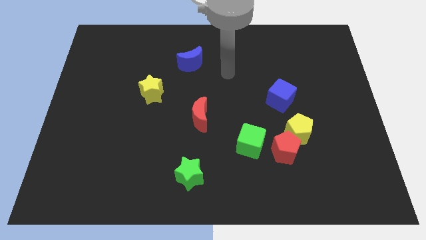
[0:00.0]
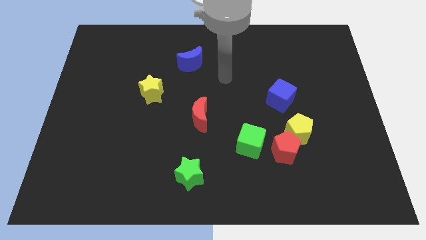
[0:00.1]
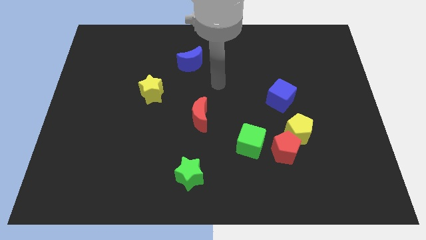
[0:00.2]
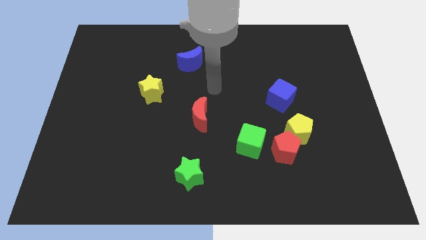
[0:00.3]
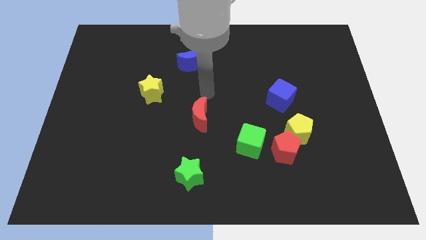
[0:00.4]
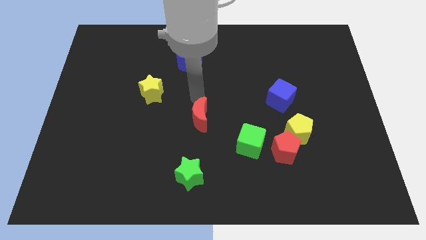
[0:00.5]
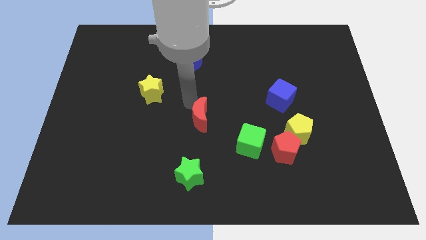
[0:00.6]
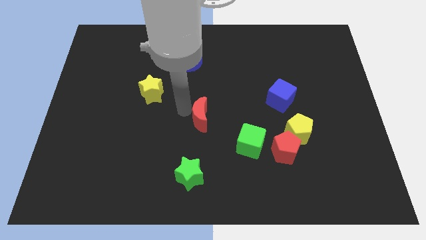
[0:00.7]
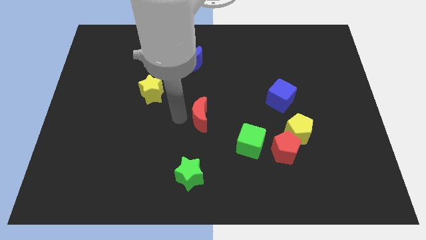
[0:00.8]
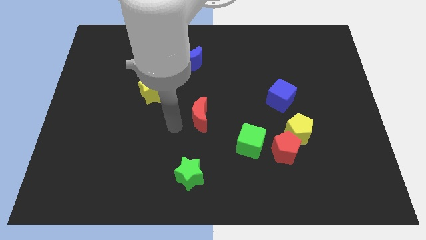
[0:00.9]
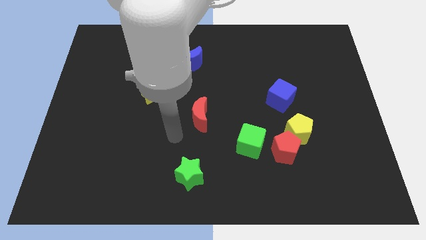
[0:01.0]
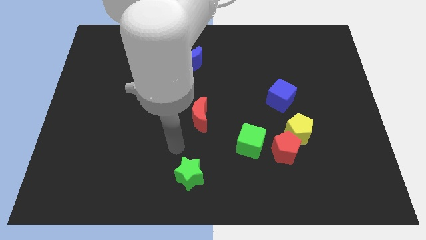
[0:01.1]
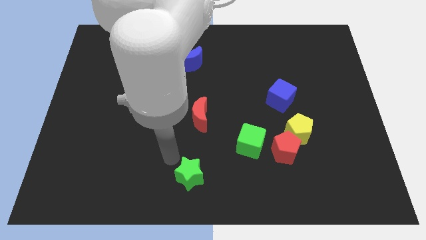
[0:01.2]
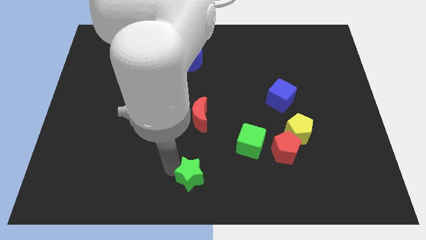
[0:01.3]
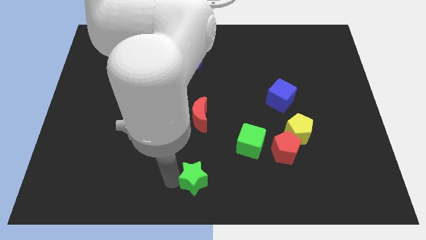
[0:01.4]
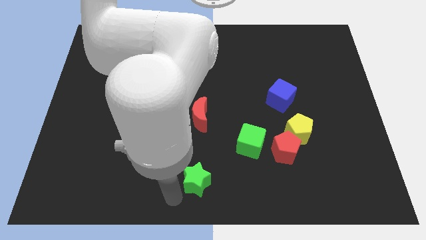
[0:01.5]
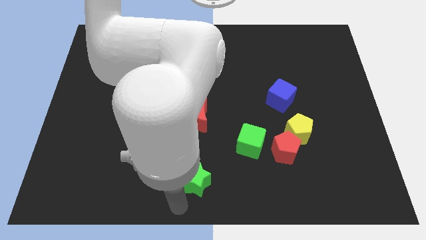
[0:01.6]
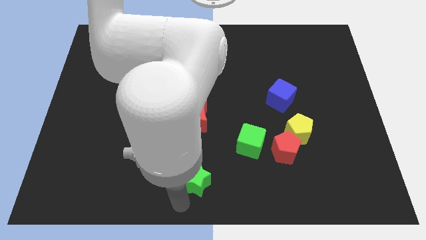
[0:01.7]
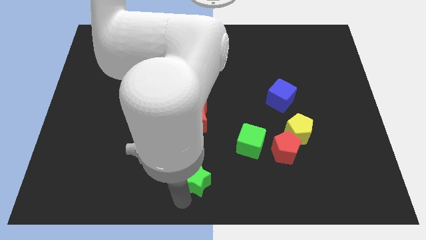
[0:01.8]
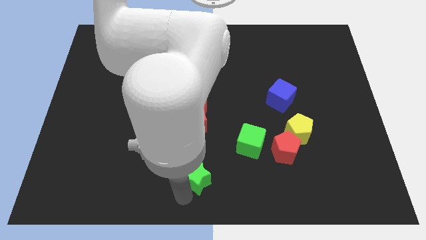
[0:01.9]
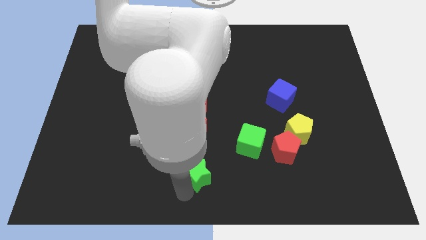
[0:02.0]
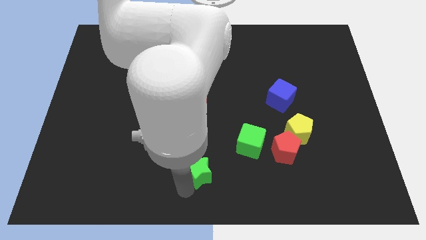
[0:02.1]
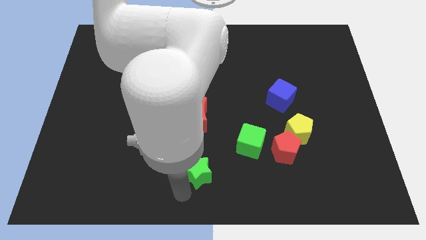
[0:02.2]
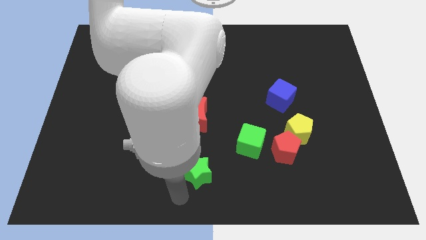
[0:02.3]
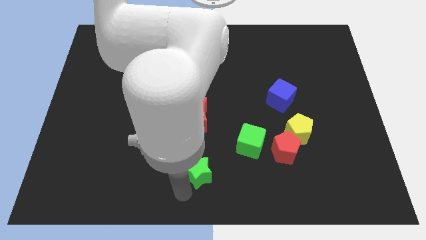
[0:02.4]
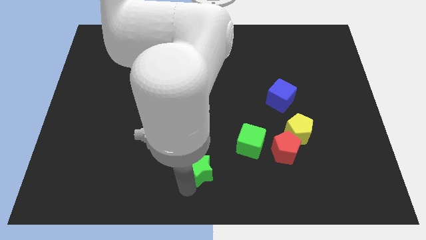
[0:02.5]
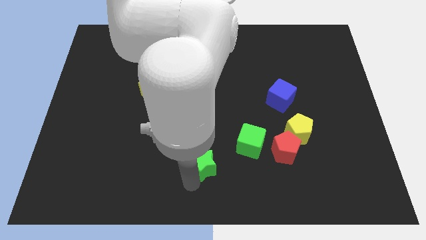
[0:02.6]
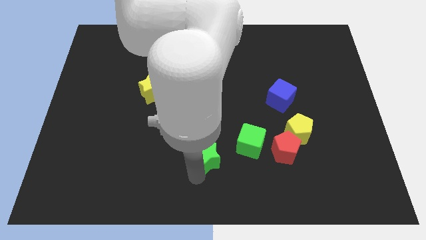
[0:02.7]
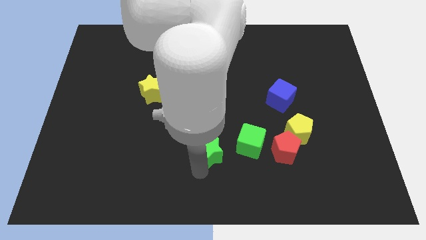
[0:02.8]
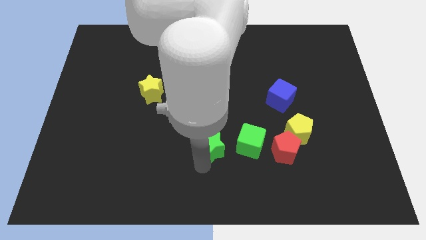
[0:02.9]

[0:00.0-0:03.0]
push the green star somewhat upwards and then right

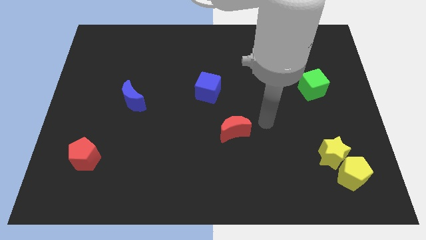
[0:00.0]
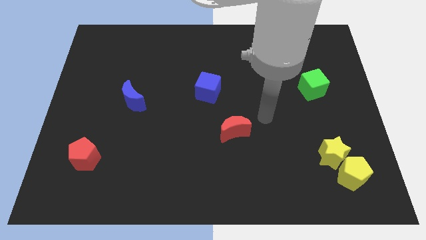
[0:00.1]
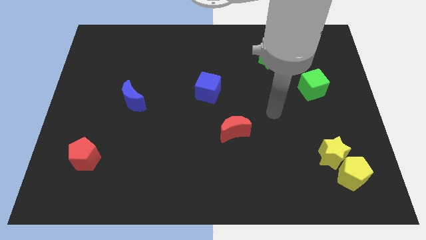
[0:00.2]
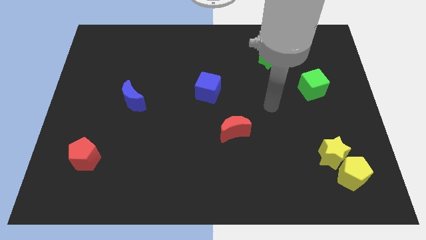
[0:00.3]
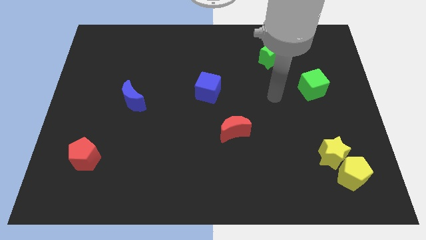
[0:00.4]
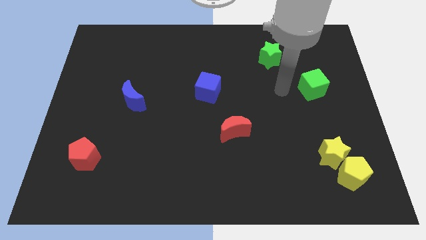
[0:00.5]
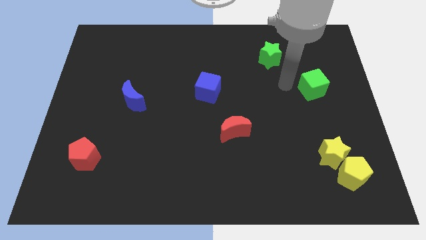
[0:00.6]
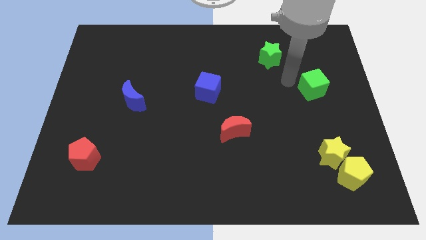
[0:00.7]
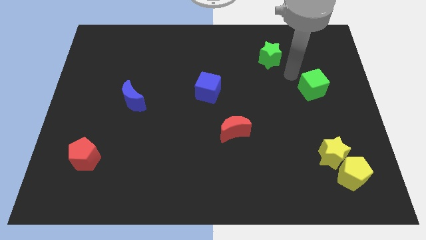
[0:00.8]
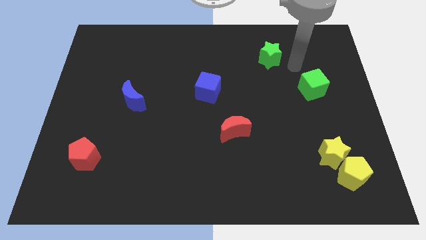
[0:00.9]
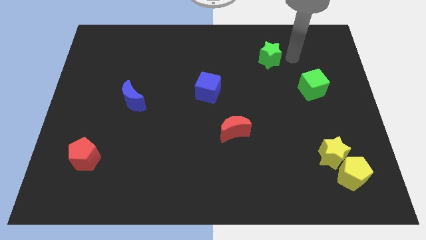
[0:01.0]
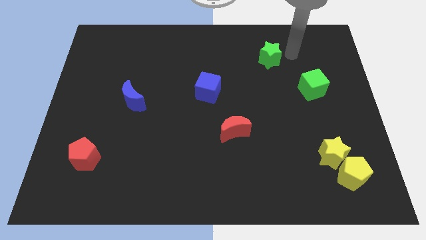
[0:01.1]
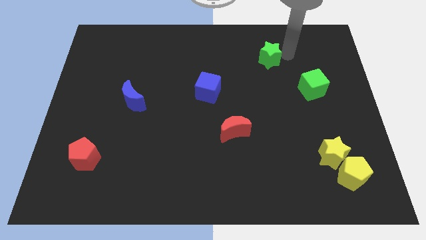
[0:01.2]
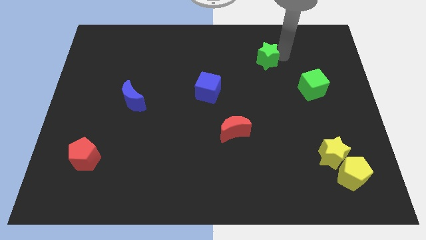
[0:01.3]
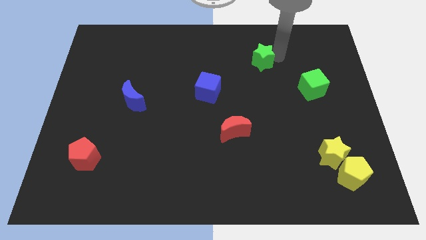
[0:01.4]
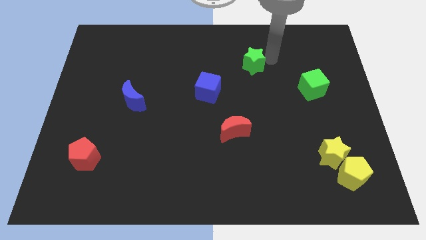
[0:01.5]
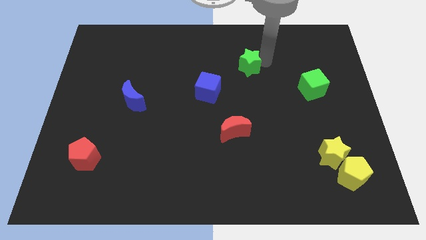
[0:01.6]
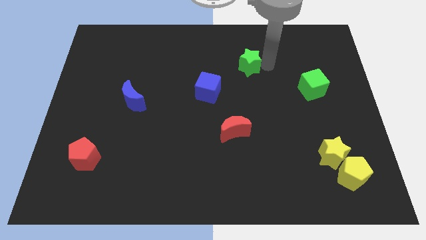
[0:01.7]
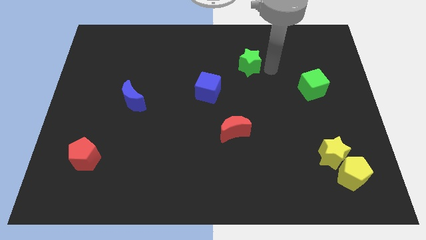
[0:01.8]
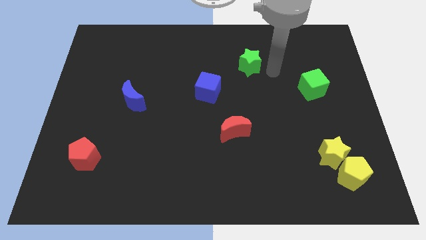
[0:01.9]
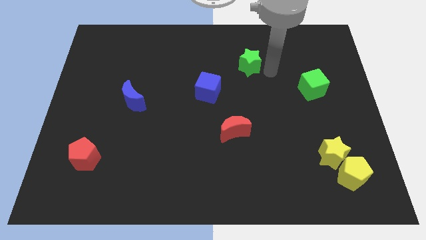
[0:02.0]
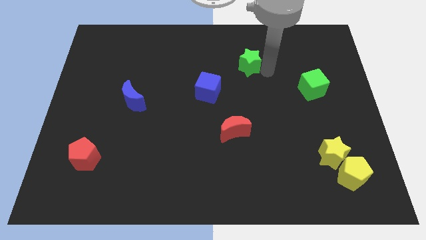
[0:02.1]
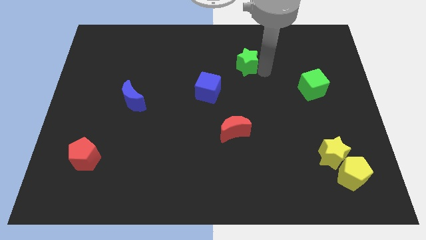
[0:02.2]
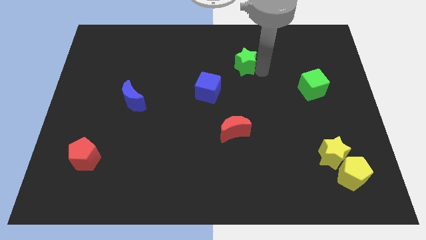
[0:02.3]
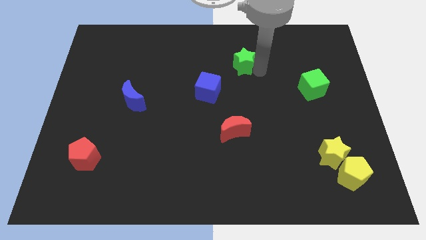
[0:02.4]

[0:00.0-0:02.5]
push the green star a little to the left

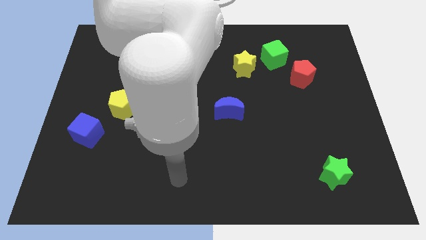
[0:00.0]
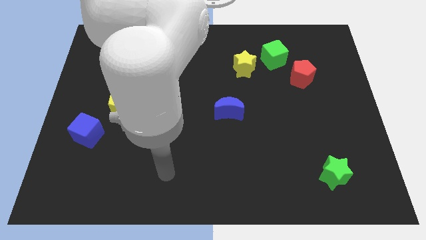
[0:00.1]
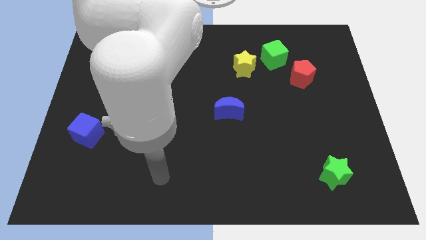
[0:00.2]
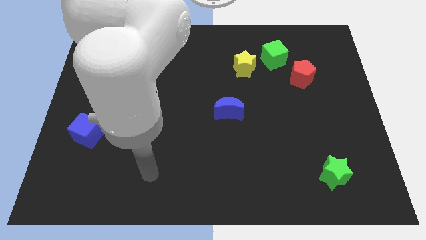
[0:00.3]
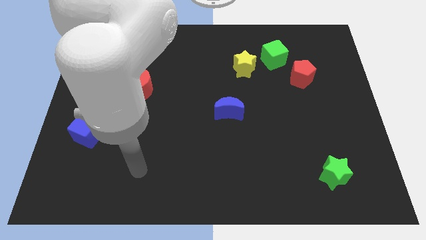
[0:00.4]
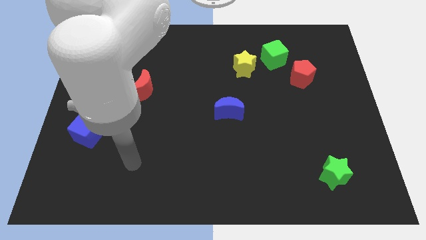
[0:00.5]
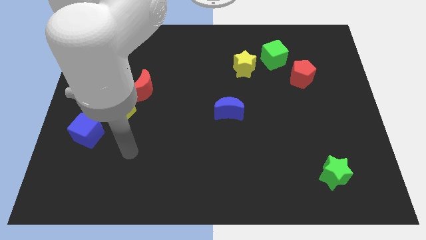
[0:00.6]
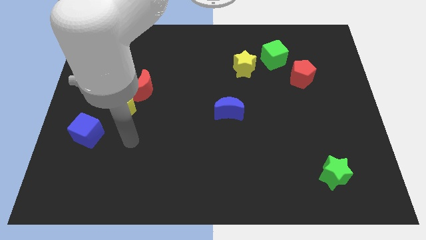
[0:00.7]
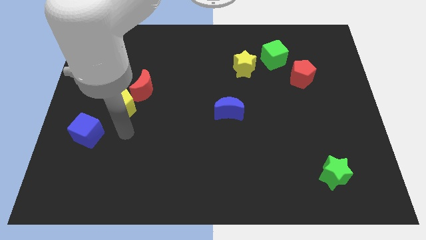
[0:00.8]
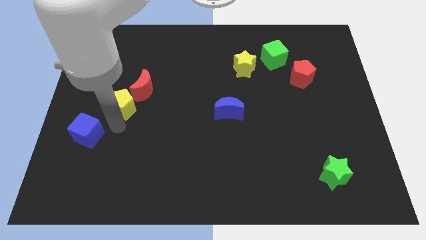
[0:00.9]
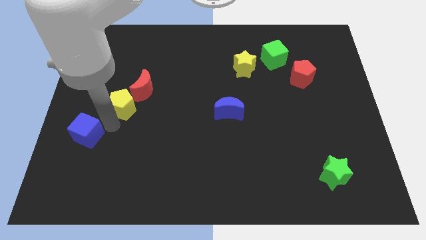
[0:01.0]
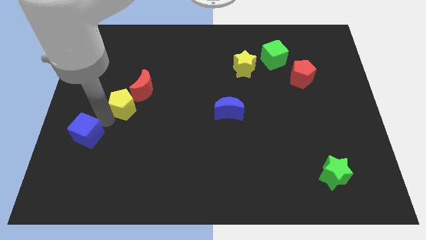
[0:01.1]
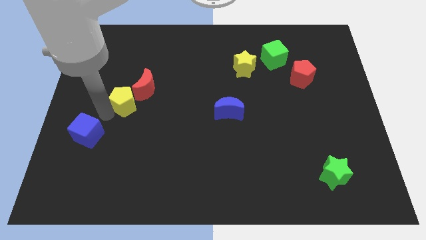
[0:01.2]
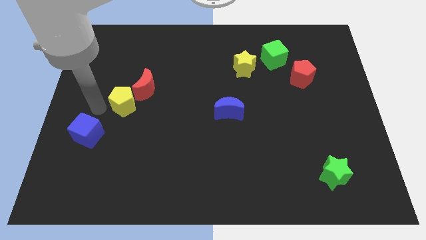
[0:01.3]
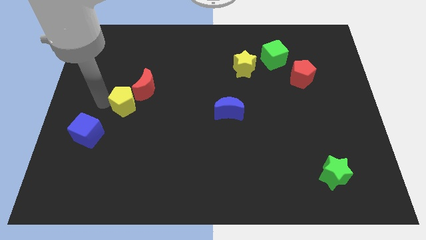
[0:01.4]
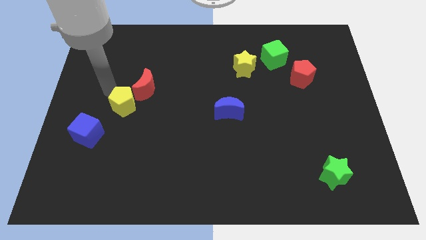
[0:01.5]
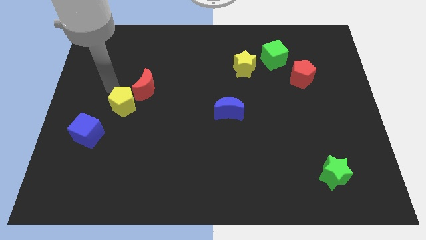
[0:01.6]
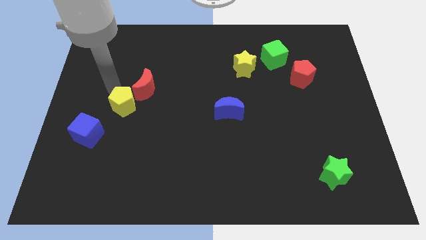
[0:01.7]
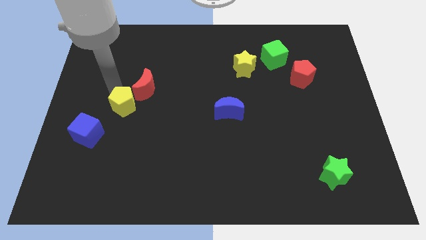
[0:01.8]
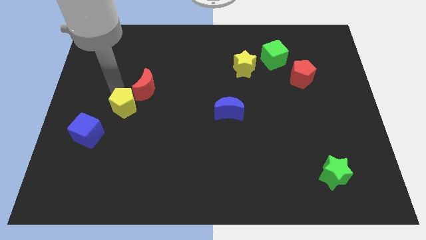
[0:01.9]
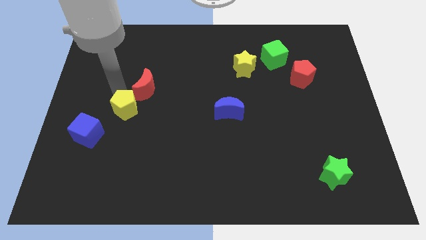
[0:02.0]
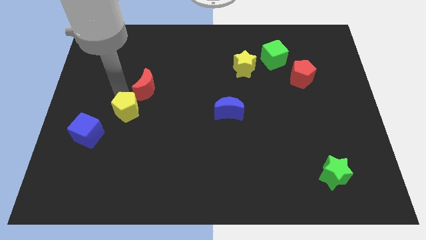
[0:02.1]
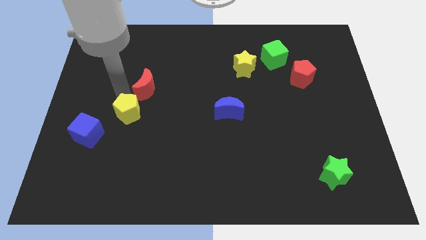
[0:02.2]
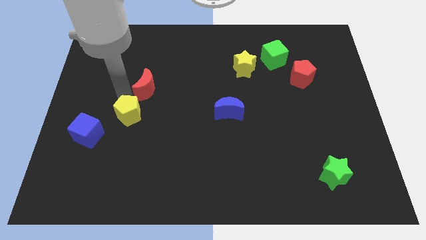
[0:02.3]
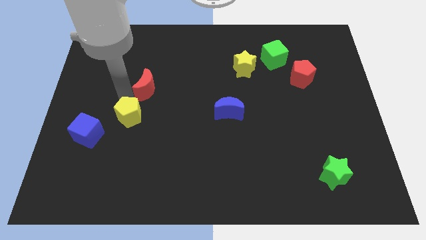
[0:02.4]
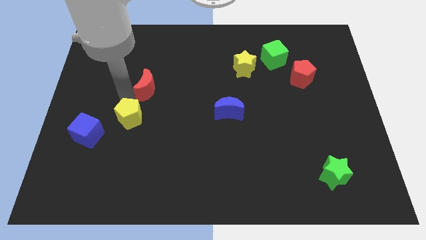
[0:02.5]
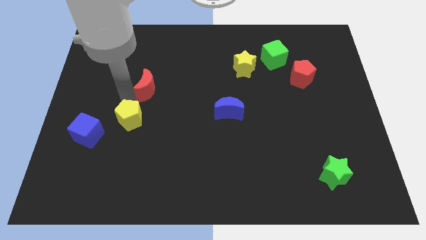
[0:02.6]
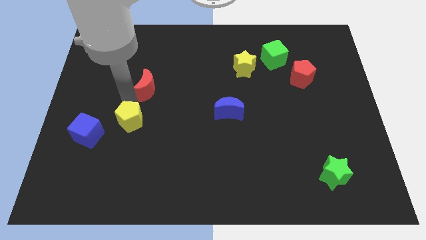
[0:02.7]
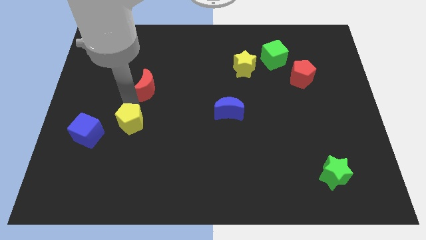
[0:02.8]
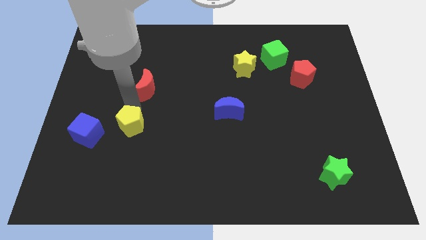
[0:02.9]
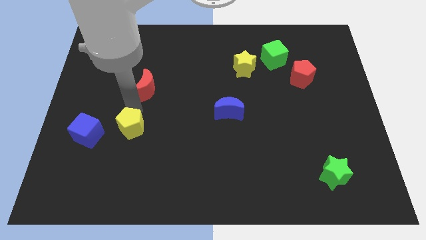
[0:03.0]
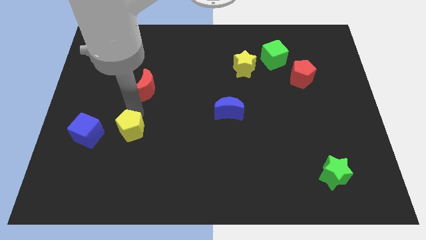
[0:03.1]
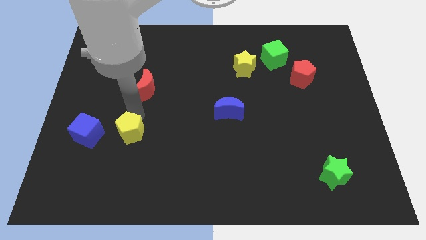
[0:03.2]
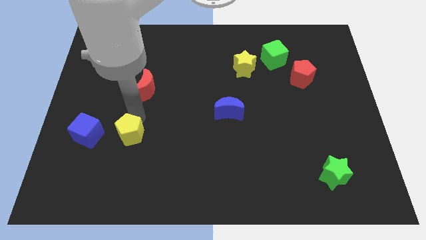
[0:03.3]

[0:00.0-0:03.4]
slightly move the yellow pentagon downwards and to the right diagonally
